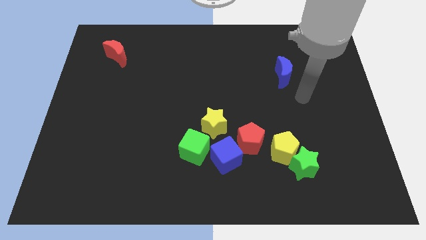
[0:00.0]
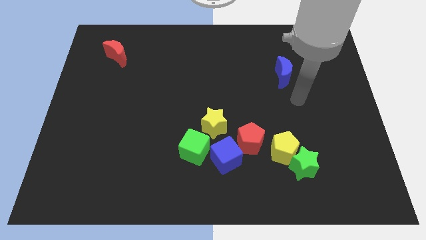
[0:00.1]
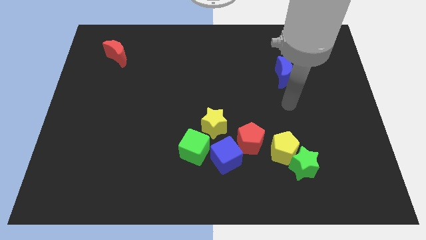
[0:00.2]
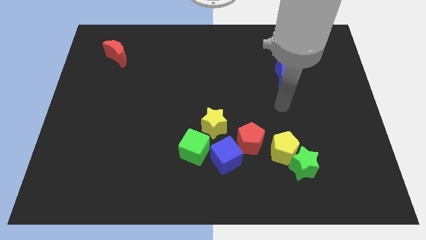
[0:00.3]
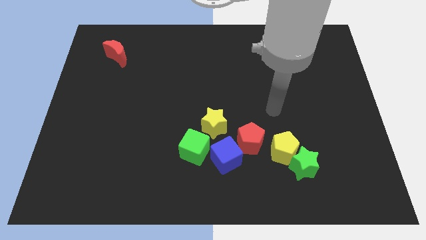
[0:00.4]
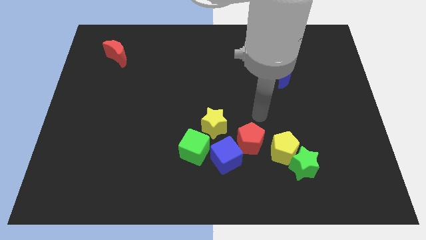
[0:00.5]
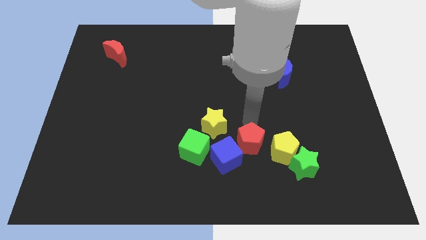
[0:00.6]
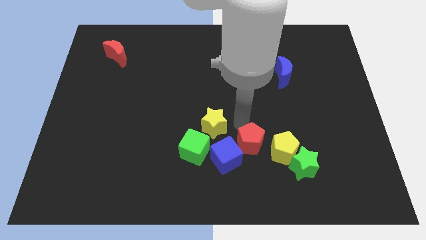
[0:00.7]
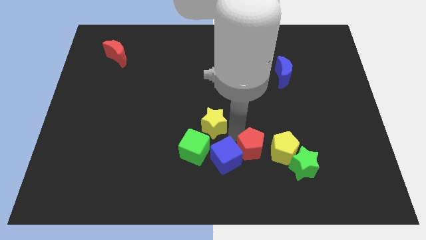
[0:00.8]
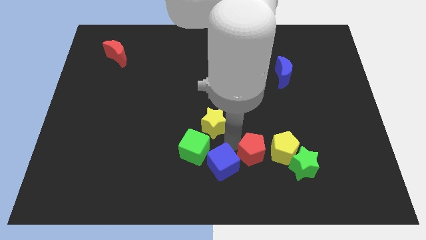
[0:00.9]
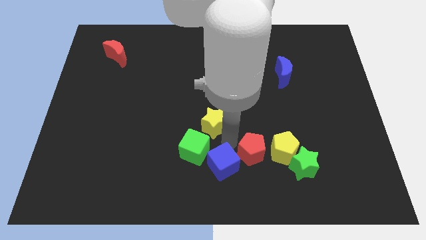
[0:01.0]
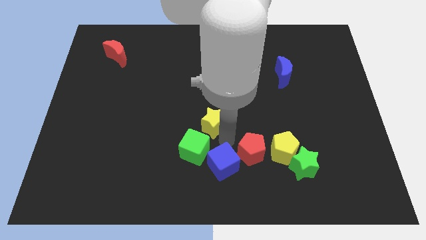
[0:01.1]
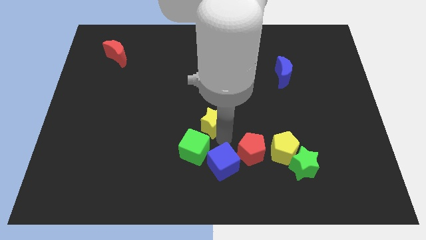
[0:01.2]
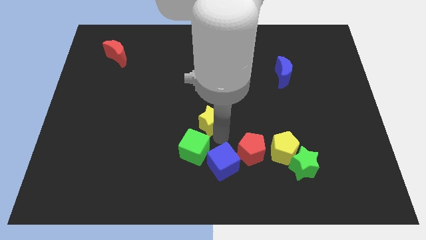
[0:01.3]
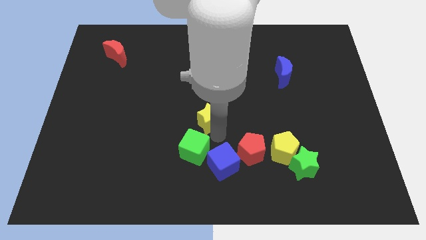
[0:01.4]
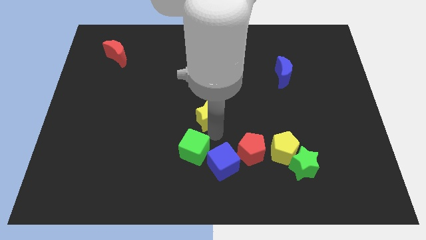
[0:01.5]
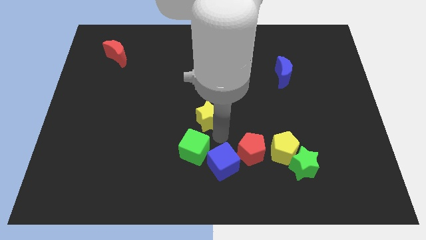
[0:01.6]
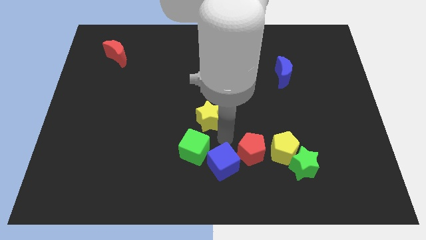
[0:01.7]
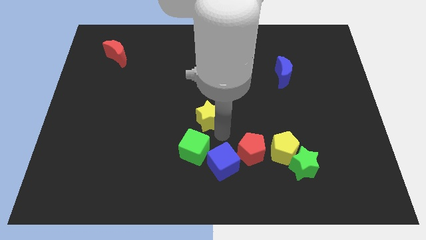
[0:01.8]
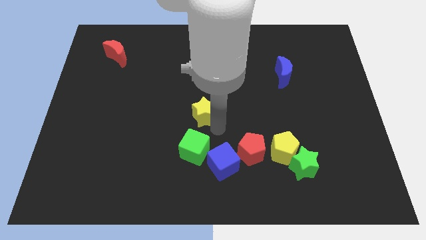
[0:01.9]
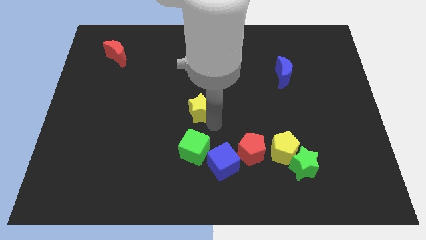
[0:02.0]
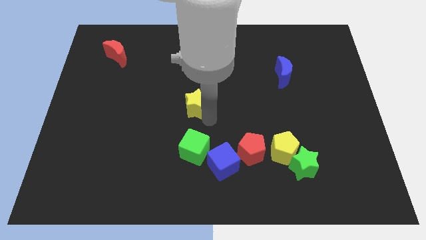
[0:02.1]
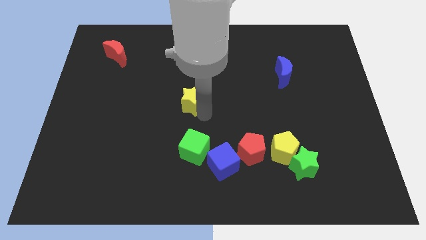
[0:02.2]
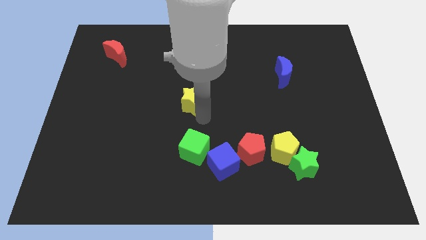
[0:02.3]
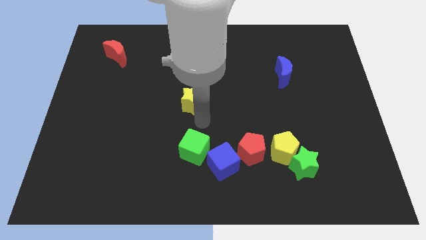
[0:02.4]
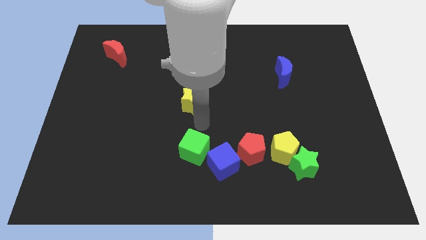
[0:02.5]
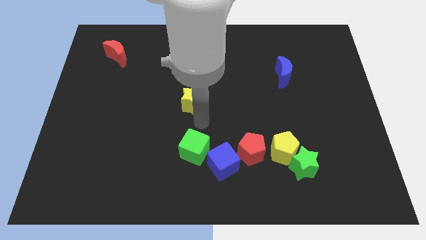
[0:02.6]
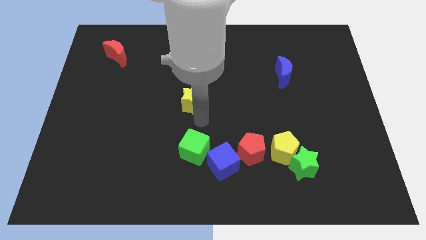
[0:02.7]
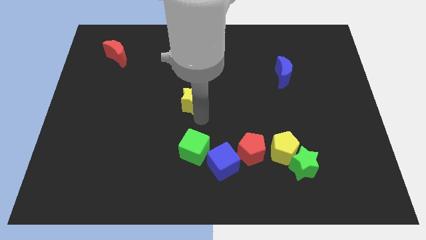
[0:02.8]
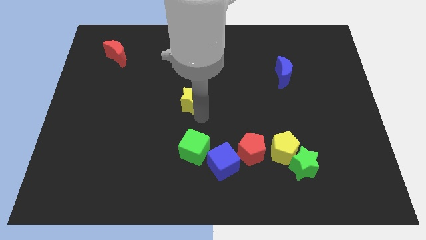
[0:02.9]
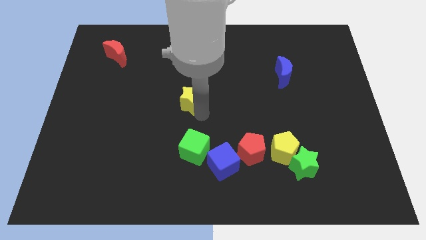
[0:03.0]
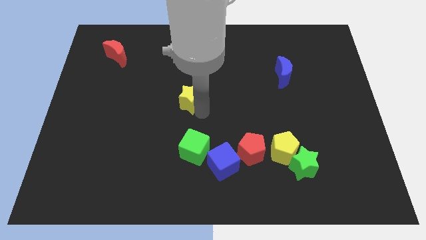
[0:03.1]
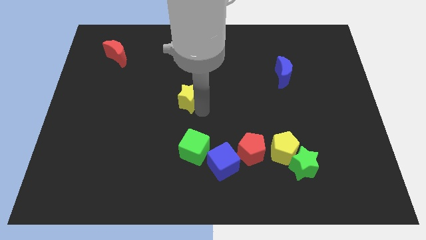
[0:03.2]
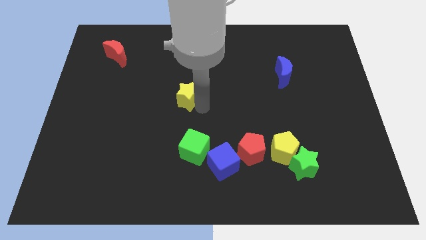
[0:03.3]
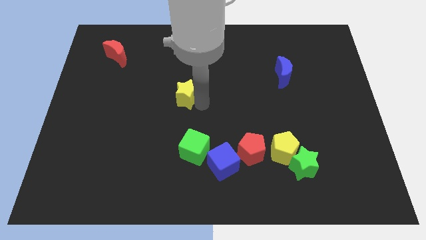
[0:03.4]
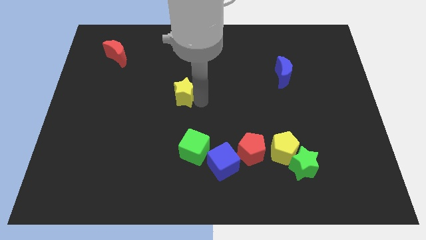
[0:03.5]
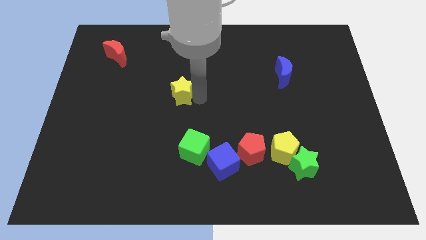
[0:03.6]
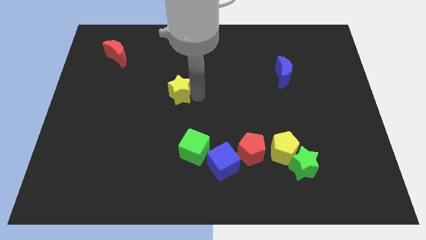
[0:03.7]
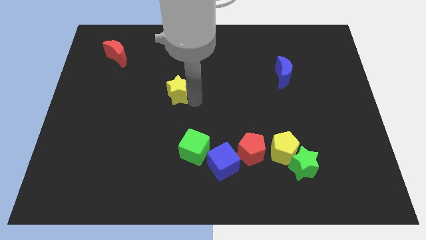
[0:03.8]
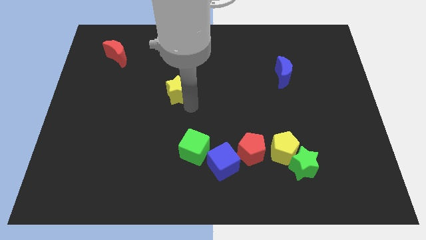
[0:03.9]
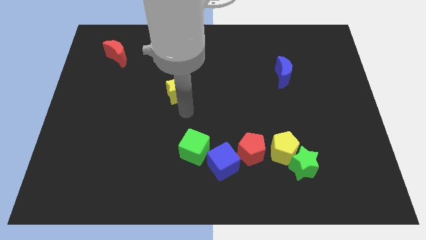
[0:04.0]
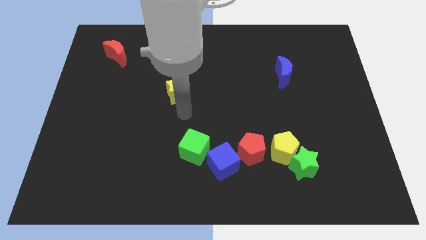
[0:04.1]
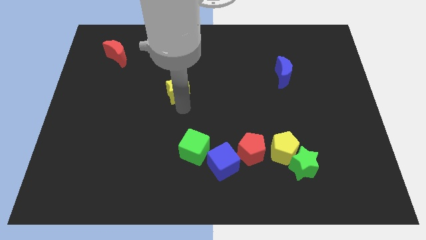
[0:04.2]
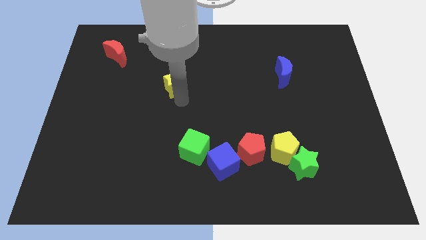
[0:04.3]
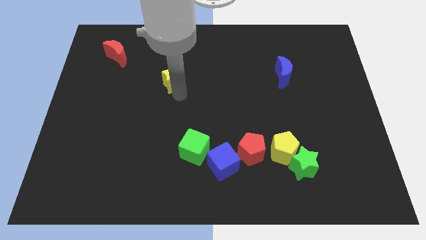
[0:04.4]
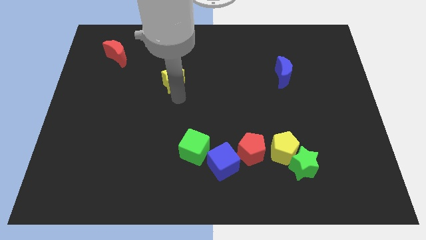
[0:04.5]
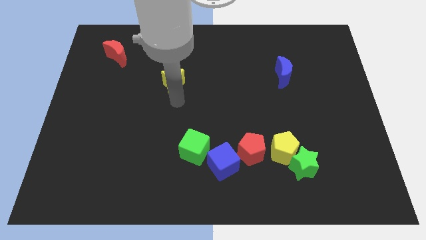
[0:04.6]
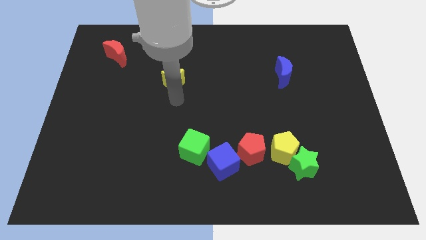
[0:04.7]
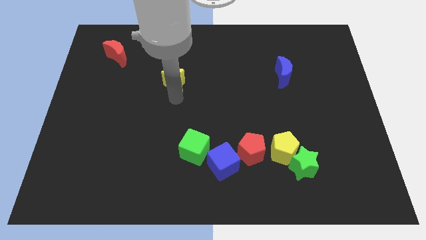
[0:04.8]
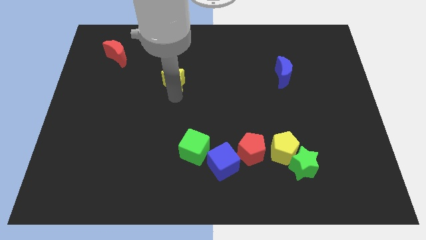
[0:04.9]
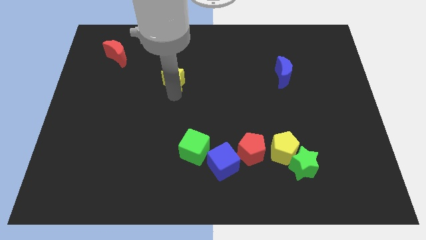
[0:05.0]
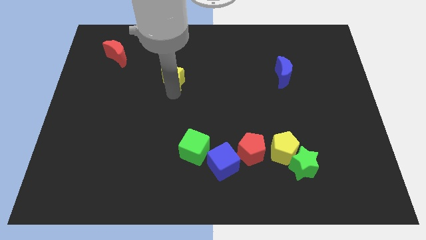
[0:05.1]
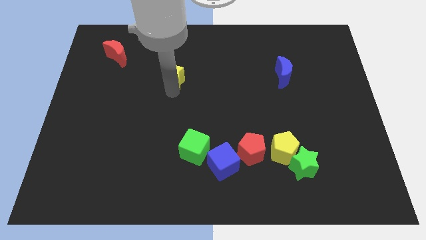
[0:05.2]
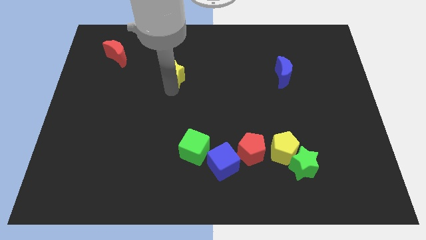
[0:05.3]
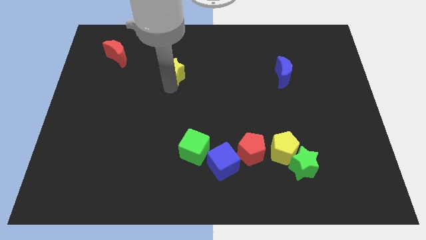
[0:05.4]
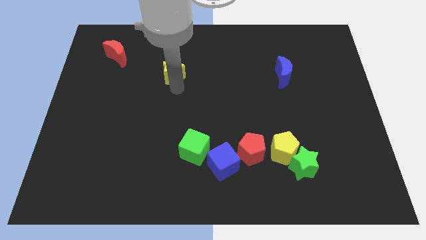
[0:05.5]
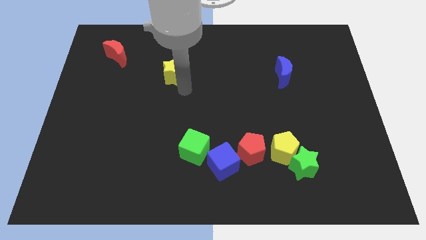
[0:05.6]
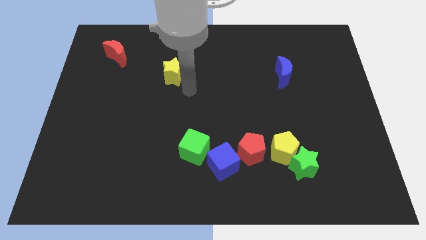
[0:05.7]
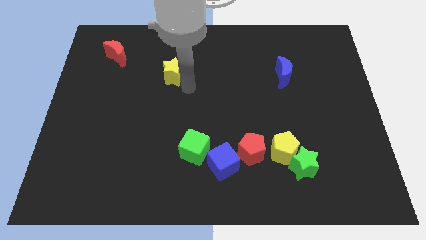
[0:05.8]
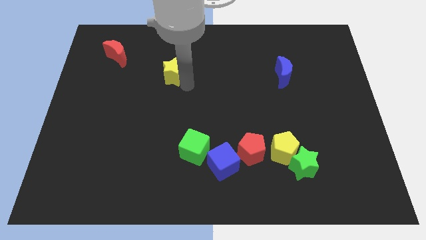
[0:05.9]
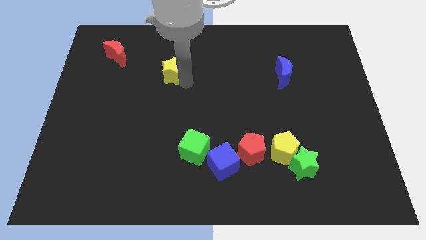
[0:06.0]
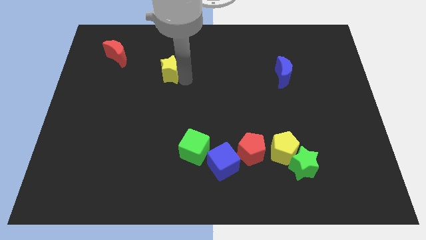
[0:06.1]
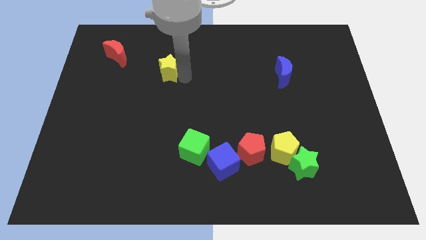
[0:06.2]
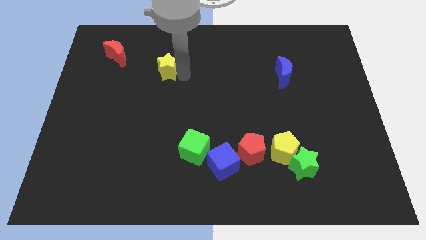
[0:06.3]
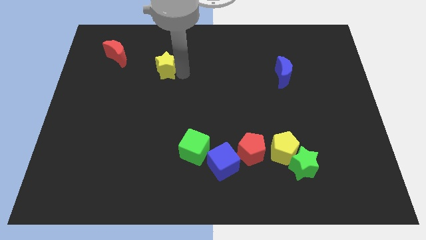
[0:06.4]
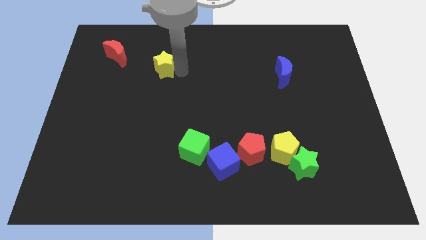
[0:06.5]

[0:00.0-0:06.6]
push the yellow star just right of the red moon

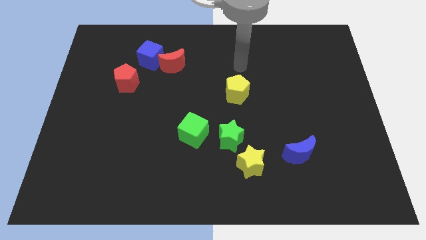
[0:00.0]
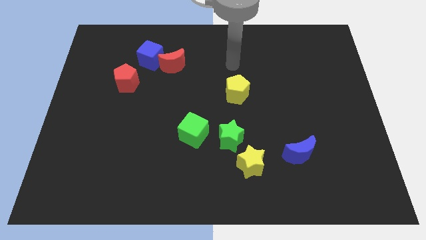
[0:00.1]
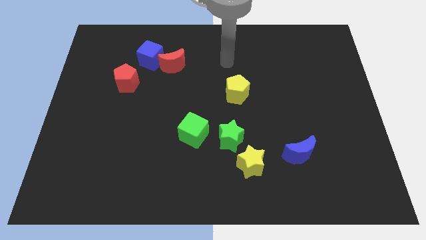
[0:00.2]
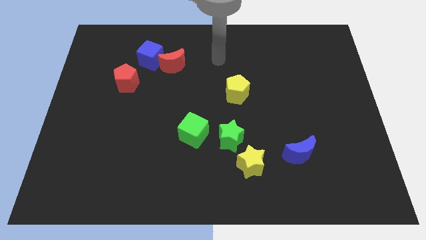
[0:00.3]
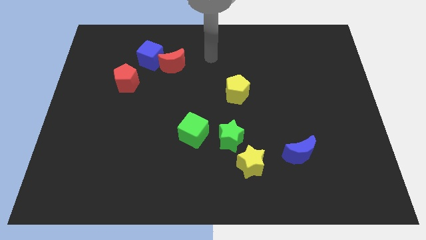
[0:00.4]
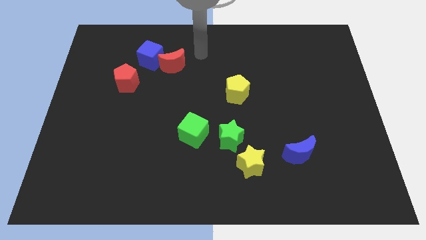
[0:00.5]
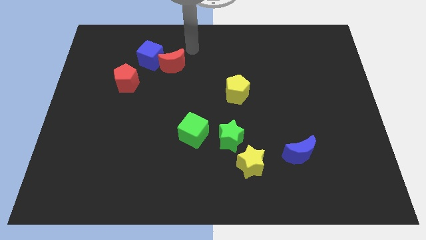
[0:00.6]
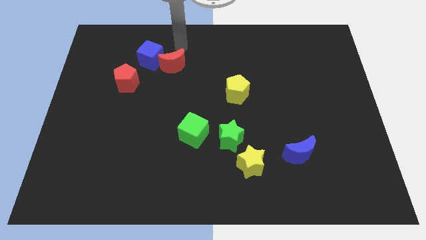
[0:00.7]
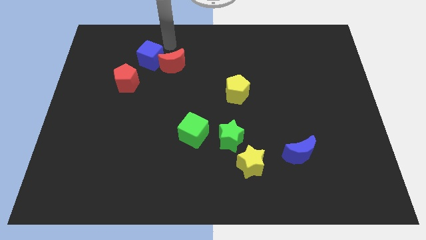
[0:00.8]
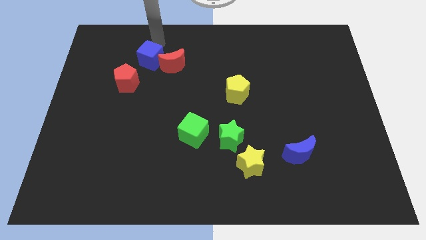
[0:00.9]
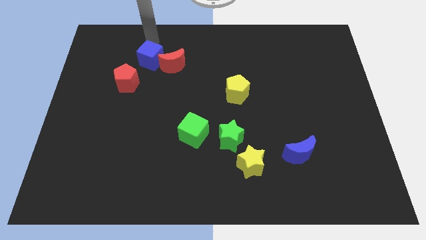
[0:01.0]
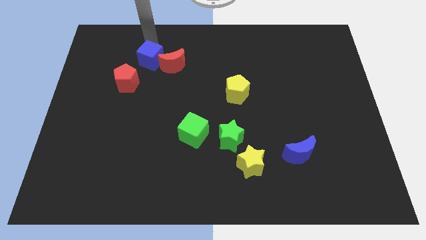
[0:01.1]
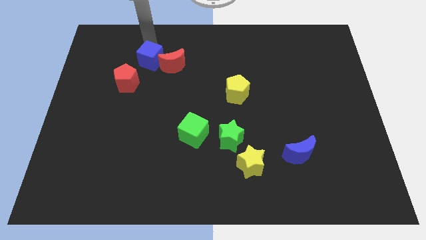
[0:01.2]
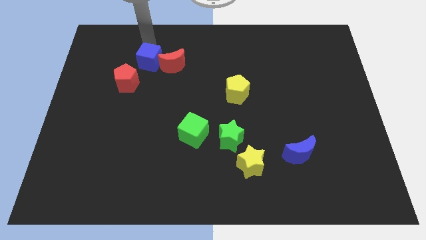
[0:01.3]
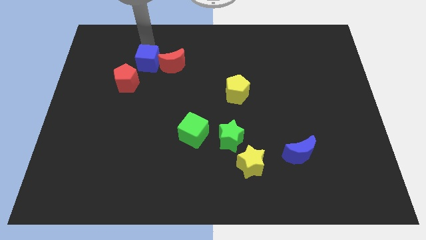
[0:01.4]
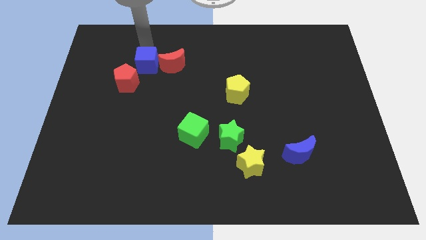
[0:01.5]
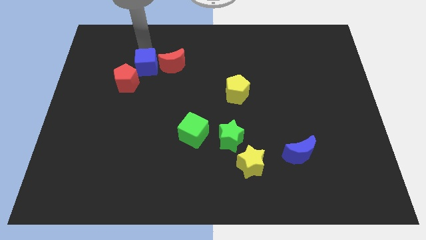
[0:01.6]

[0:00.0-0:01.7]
put the blue cube diagonally down and to the left of the red moon
